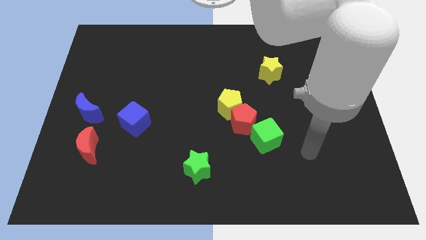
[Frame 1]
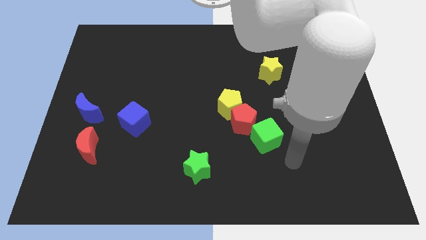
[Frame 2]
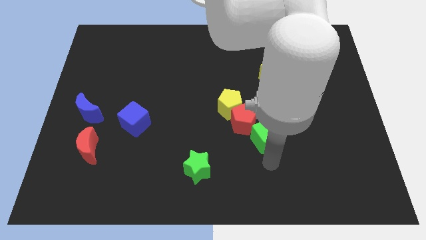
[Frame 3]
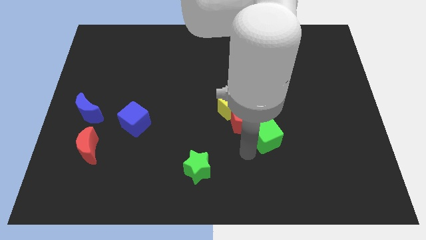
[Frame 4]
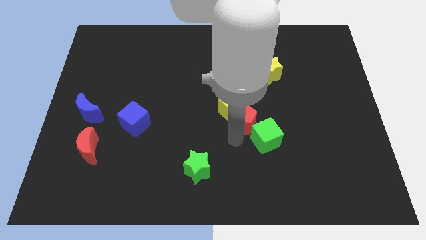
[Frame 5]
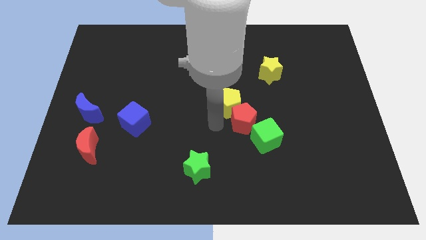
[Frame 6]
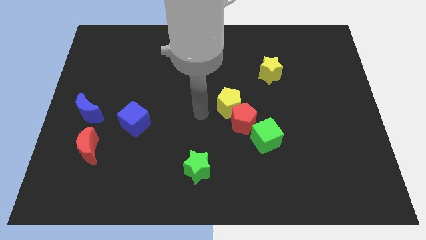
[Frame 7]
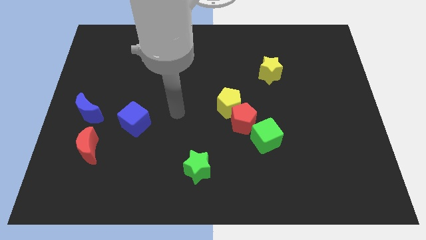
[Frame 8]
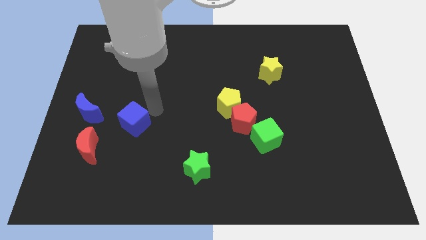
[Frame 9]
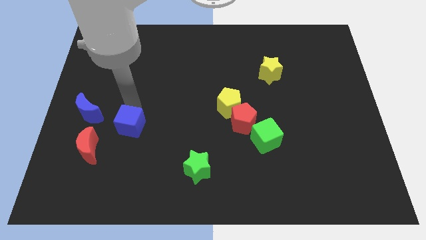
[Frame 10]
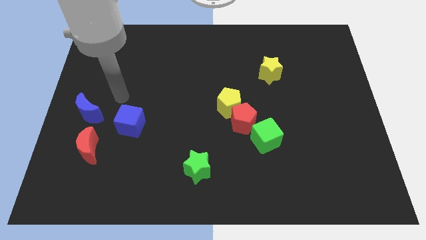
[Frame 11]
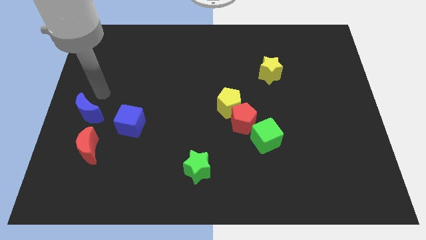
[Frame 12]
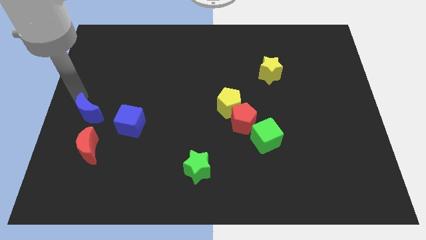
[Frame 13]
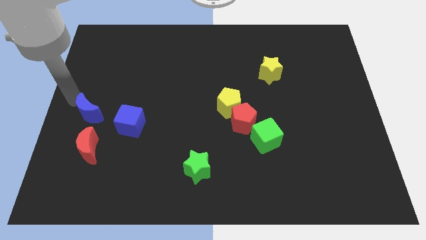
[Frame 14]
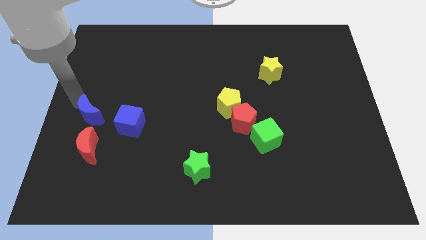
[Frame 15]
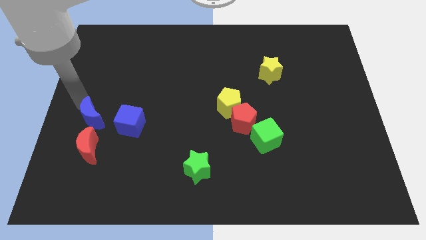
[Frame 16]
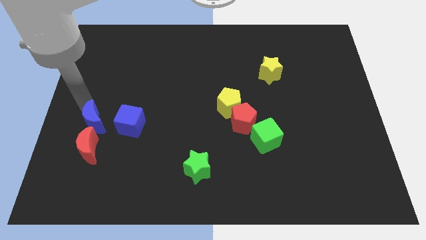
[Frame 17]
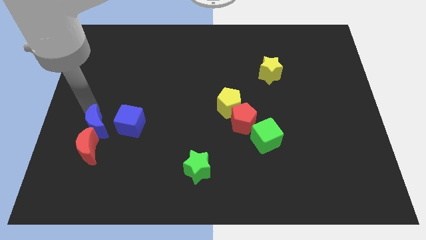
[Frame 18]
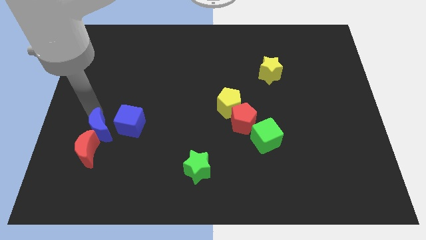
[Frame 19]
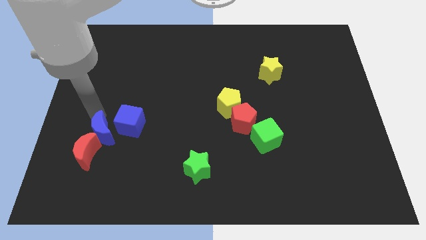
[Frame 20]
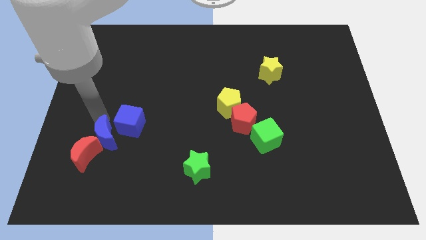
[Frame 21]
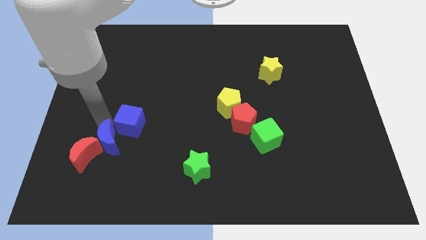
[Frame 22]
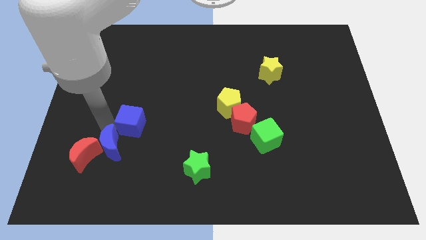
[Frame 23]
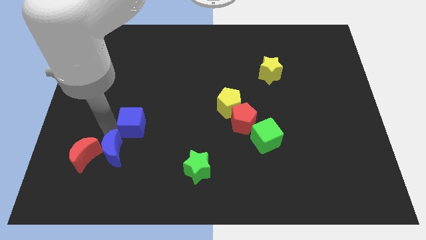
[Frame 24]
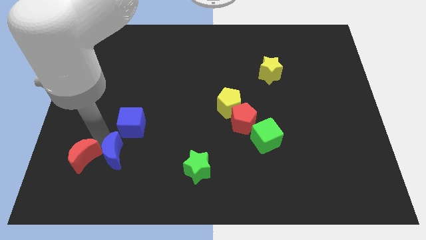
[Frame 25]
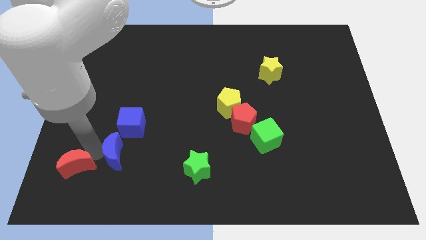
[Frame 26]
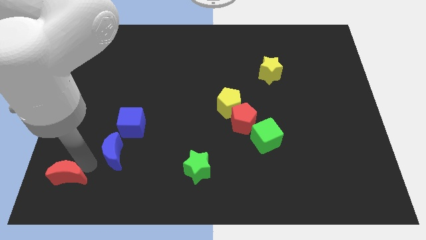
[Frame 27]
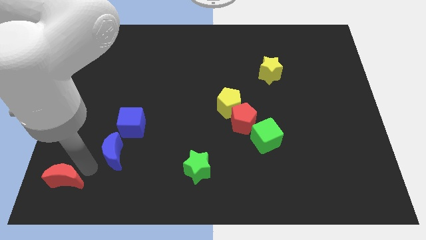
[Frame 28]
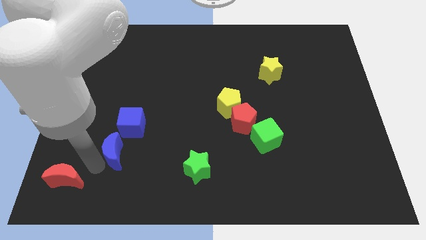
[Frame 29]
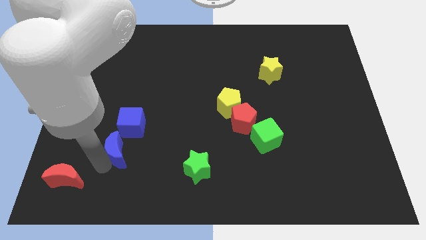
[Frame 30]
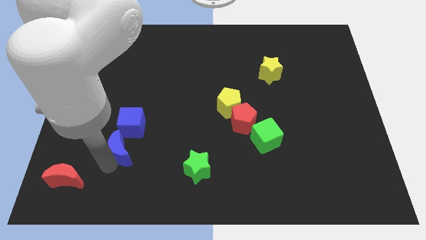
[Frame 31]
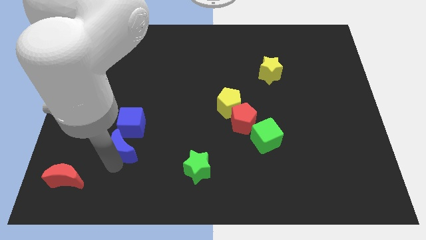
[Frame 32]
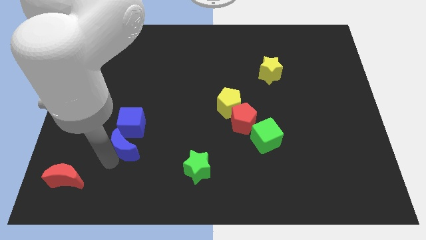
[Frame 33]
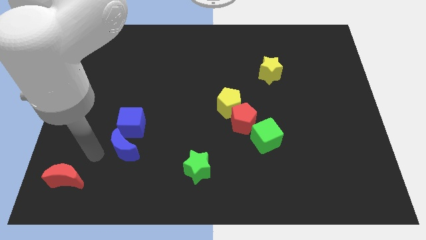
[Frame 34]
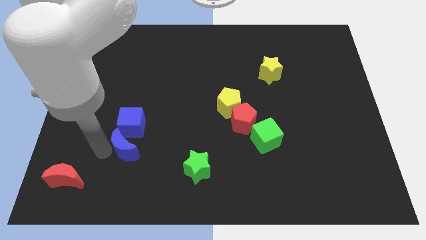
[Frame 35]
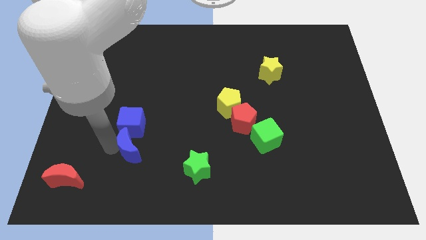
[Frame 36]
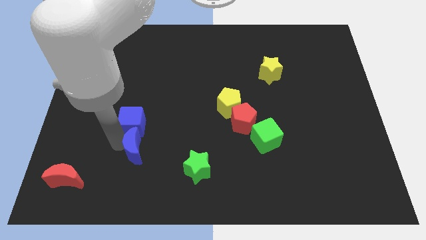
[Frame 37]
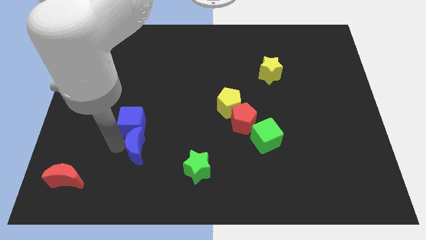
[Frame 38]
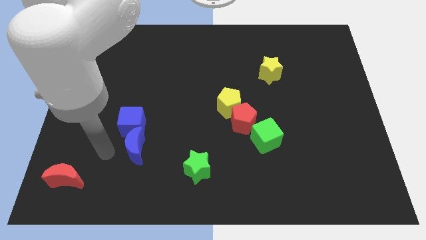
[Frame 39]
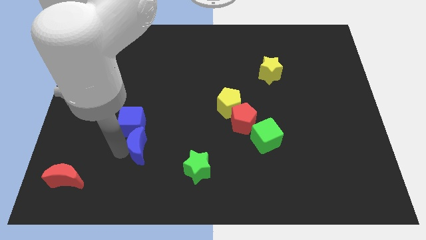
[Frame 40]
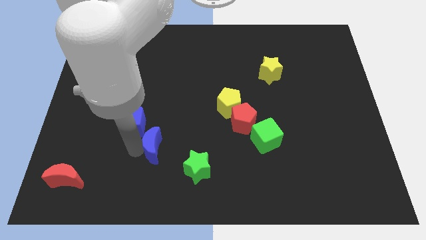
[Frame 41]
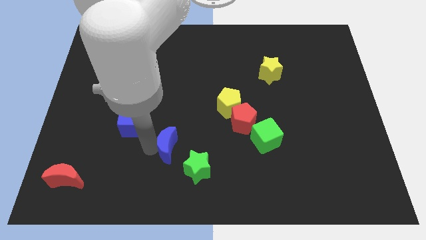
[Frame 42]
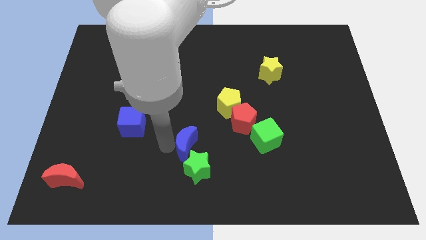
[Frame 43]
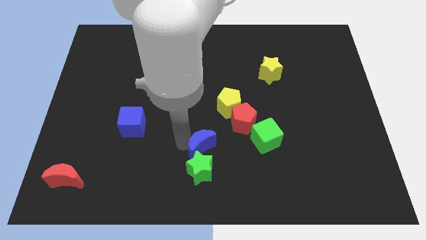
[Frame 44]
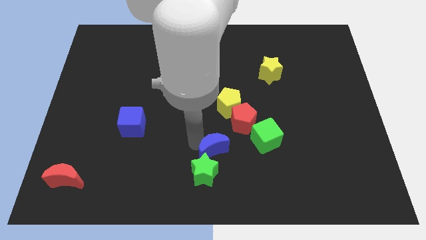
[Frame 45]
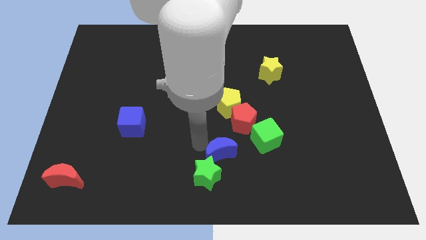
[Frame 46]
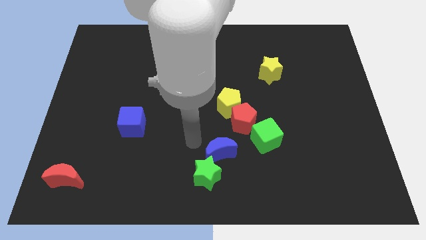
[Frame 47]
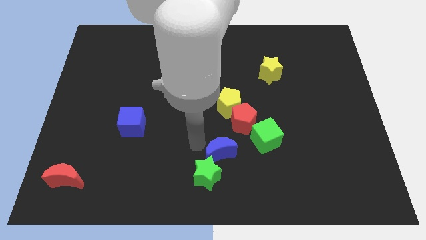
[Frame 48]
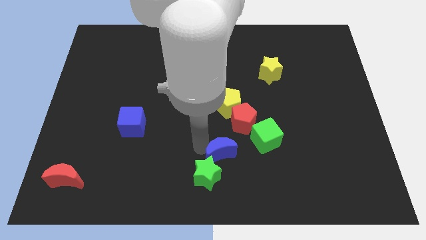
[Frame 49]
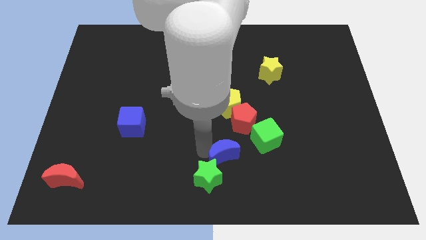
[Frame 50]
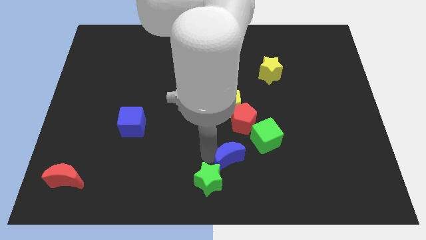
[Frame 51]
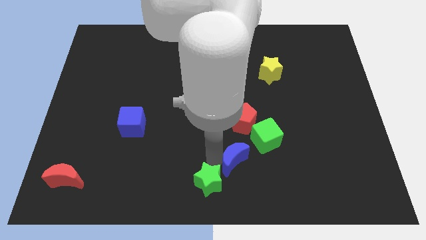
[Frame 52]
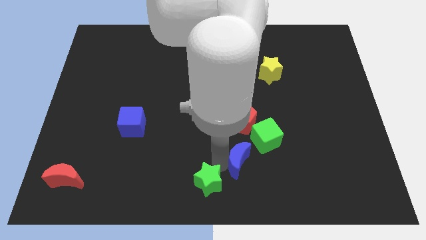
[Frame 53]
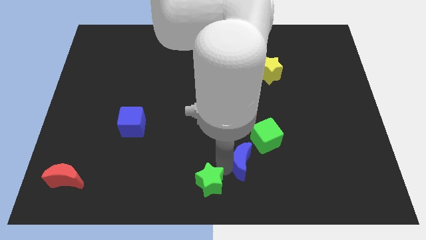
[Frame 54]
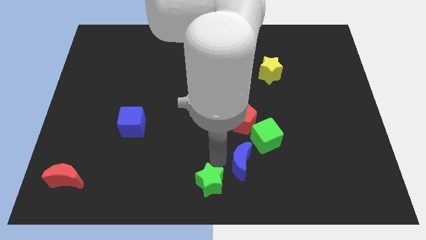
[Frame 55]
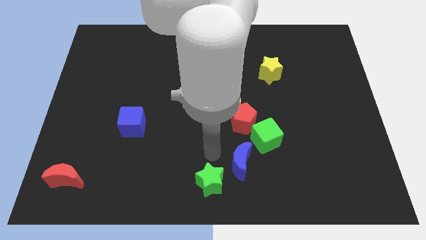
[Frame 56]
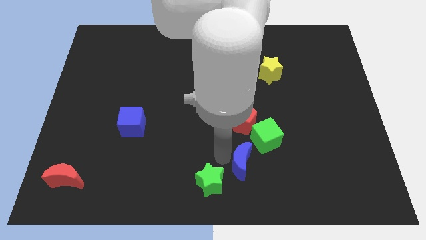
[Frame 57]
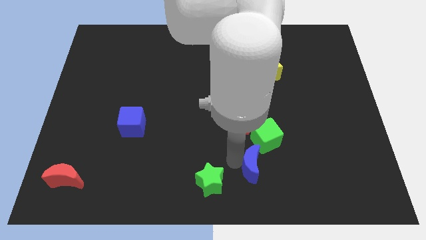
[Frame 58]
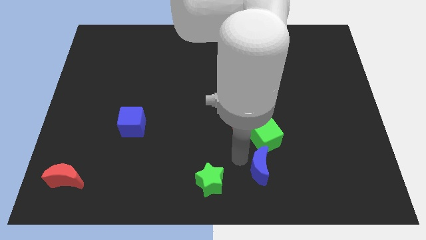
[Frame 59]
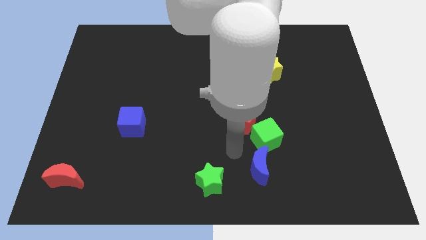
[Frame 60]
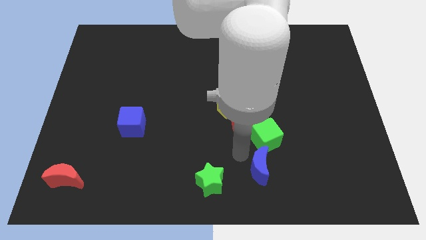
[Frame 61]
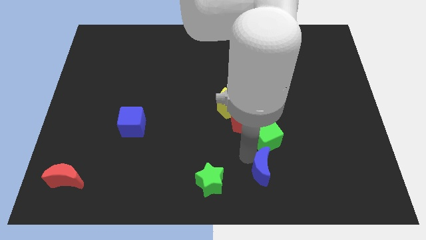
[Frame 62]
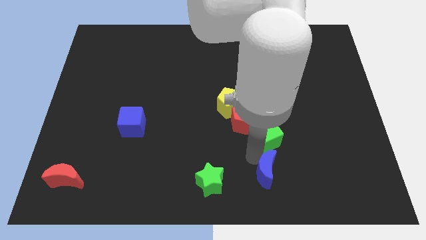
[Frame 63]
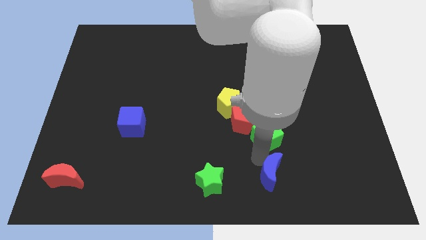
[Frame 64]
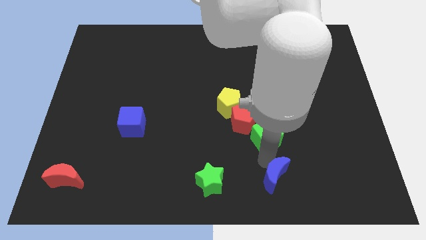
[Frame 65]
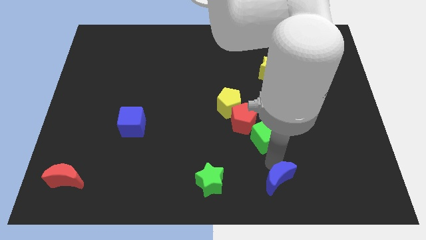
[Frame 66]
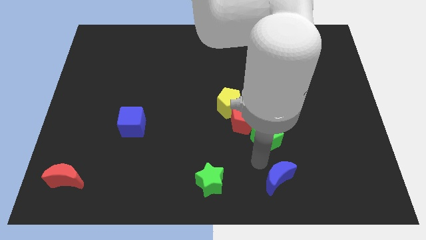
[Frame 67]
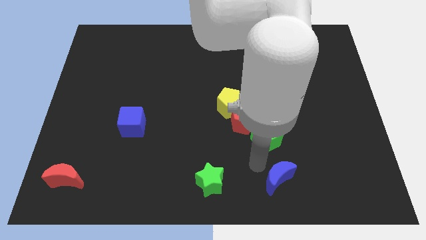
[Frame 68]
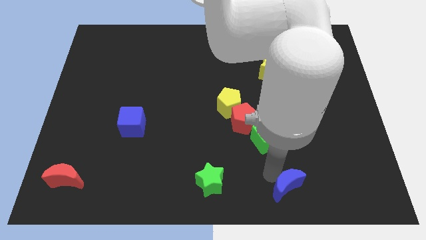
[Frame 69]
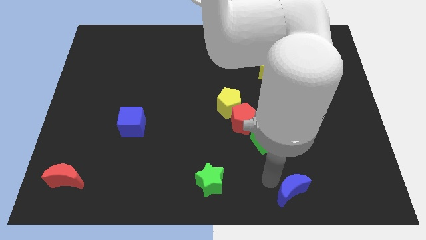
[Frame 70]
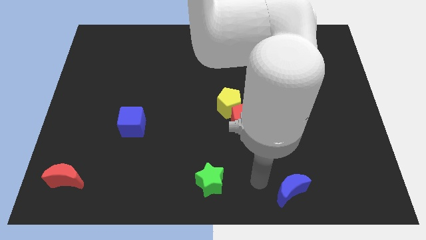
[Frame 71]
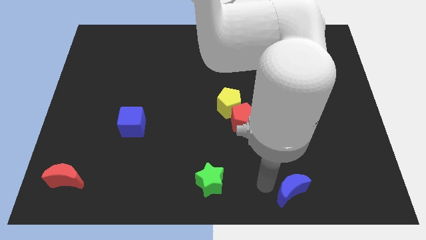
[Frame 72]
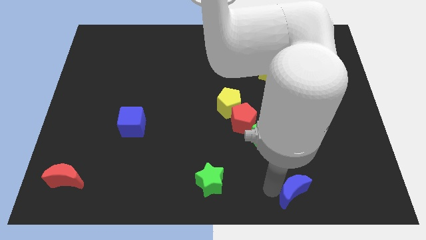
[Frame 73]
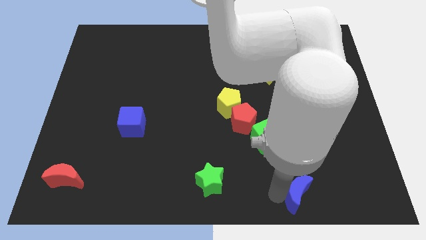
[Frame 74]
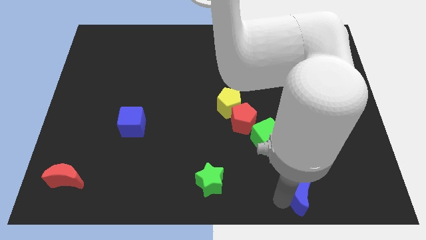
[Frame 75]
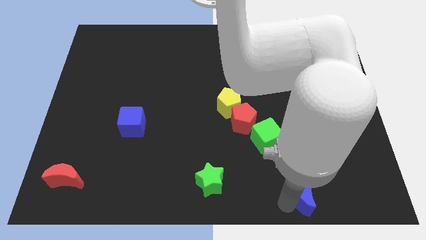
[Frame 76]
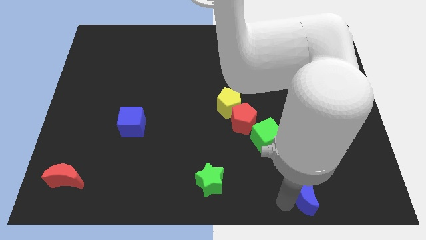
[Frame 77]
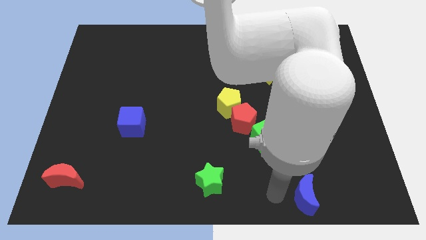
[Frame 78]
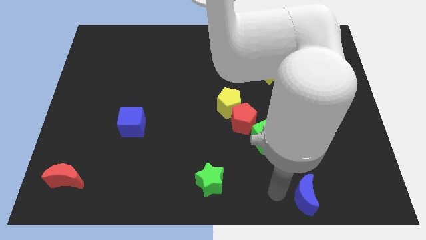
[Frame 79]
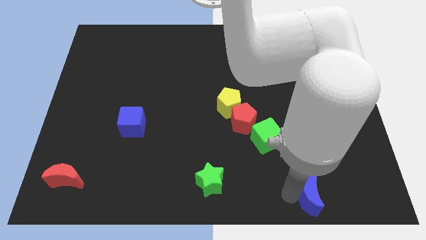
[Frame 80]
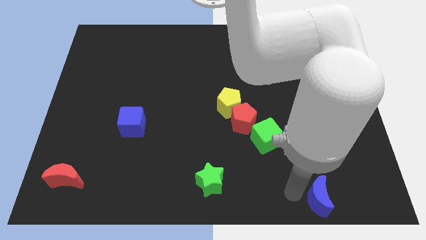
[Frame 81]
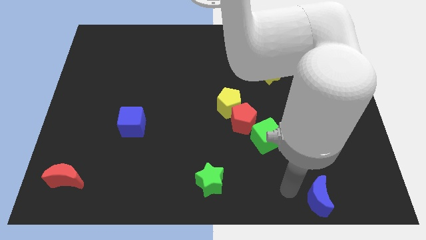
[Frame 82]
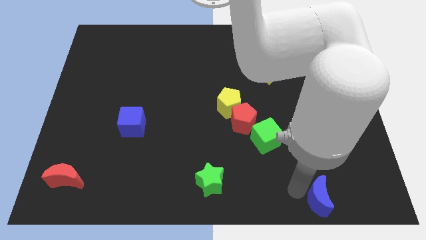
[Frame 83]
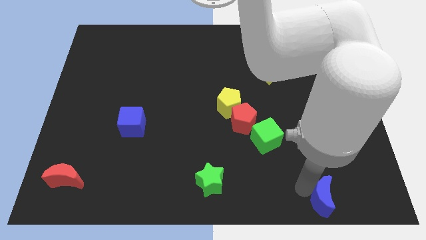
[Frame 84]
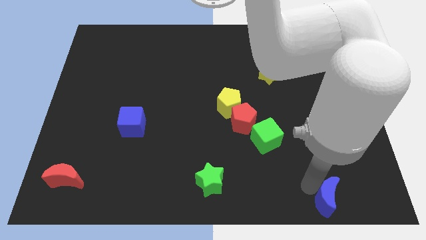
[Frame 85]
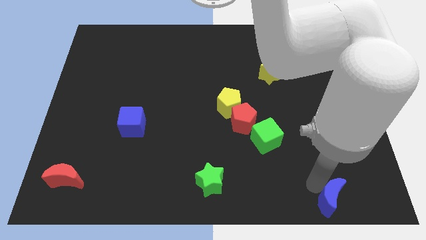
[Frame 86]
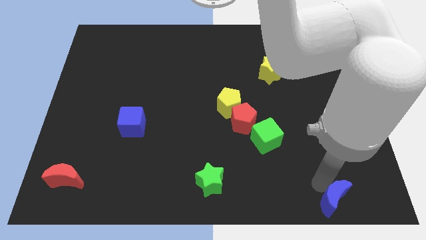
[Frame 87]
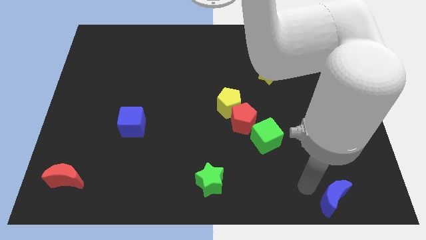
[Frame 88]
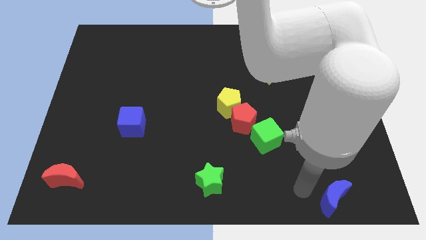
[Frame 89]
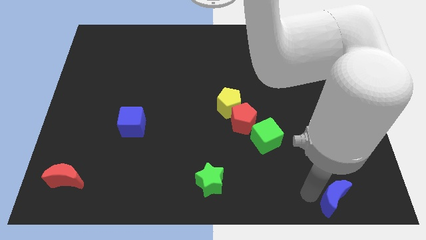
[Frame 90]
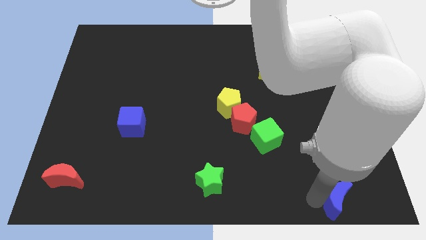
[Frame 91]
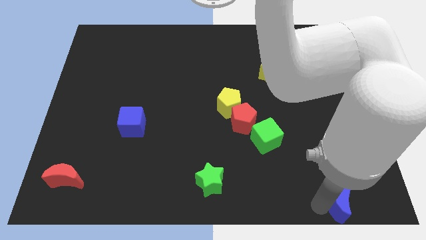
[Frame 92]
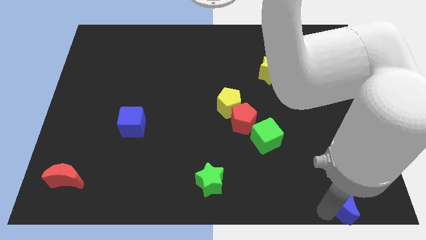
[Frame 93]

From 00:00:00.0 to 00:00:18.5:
slide the blue moon to the lower right corner
